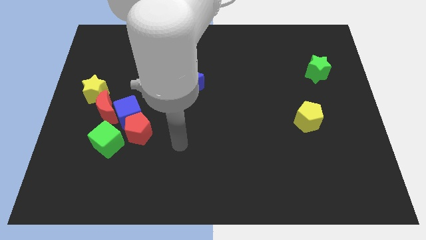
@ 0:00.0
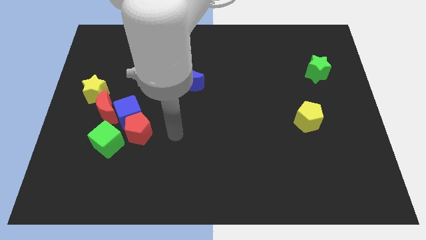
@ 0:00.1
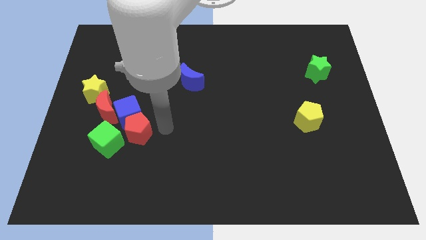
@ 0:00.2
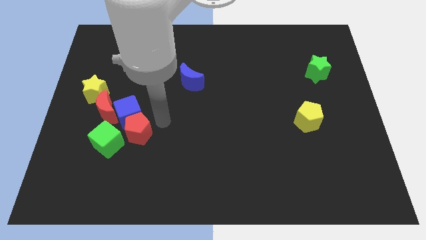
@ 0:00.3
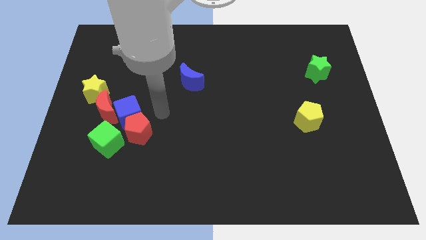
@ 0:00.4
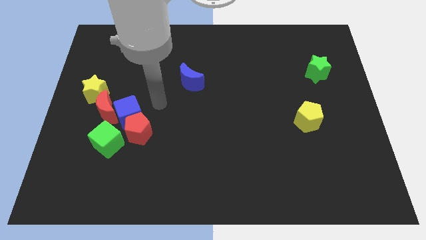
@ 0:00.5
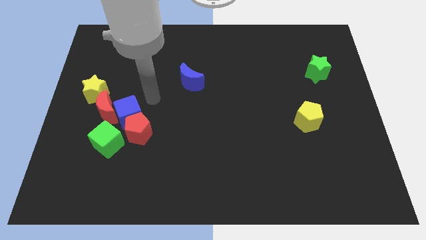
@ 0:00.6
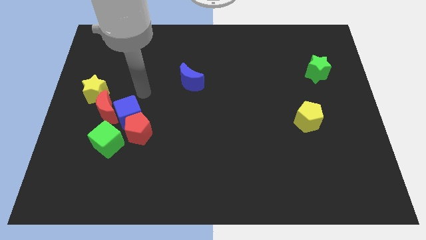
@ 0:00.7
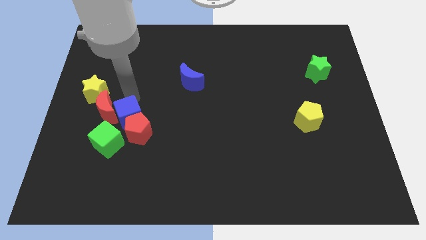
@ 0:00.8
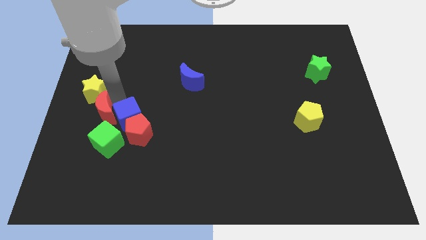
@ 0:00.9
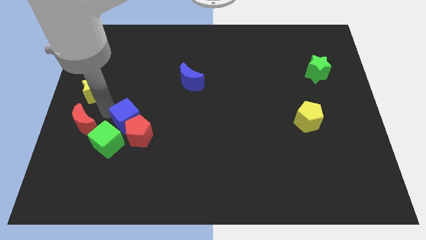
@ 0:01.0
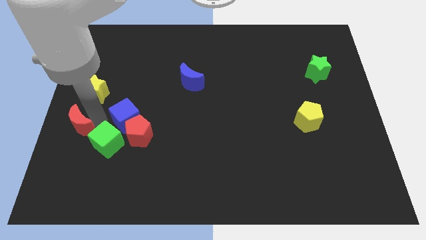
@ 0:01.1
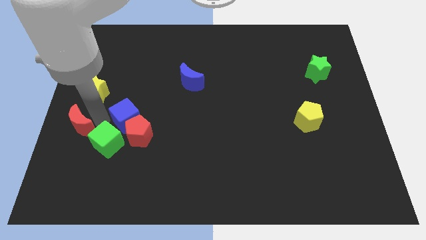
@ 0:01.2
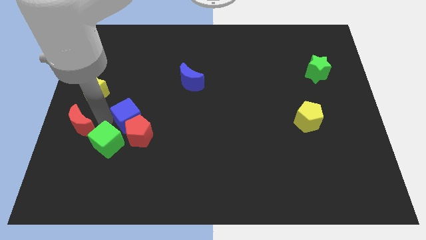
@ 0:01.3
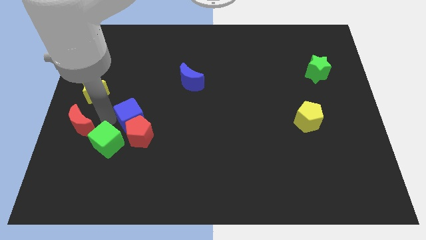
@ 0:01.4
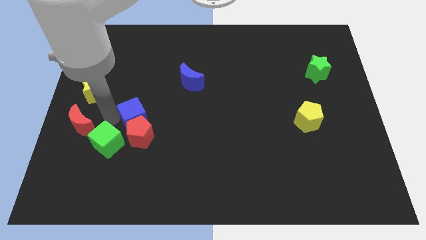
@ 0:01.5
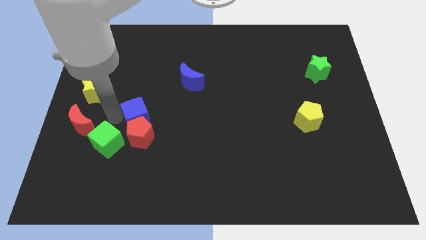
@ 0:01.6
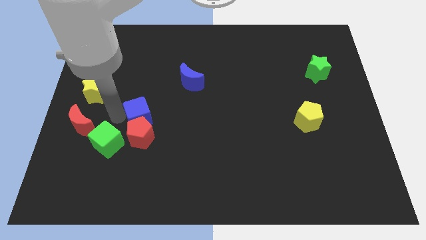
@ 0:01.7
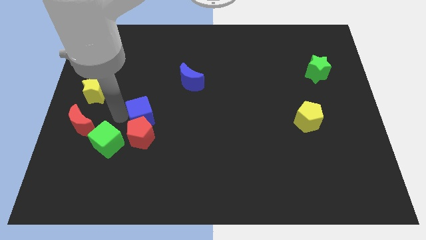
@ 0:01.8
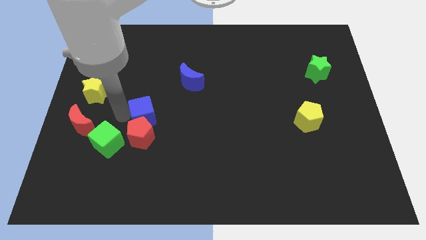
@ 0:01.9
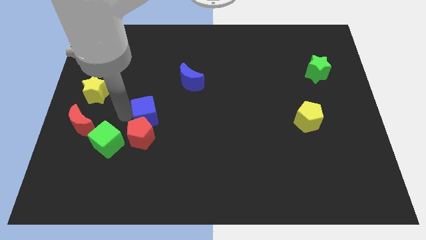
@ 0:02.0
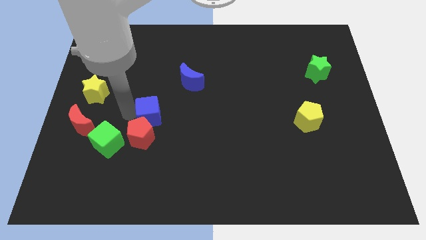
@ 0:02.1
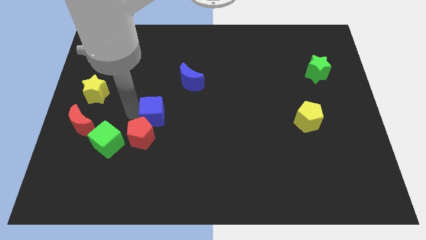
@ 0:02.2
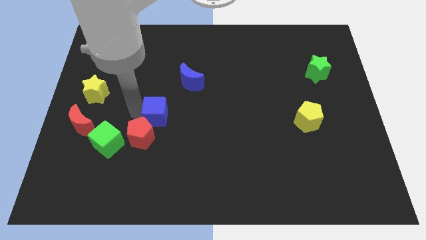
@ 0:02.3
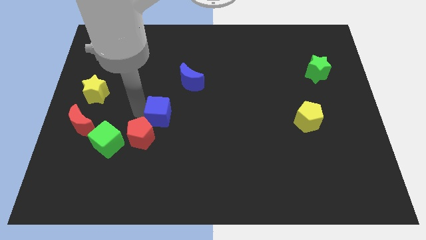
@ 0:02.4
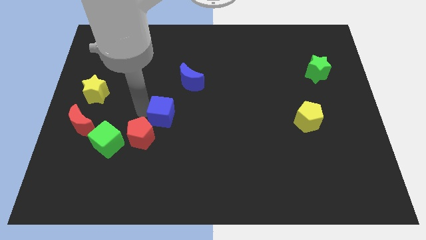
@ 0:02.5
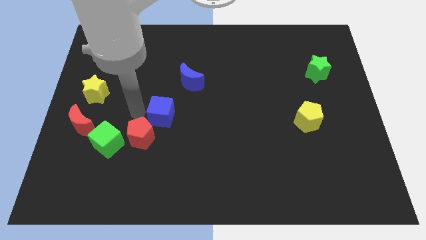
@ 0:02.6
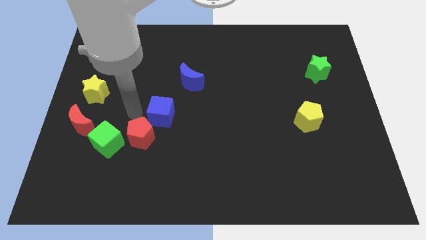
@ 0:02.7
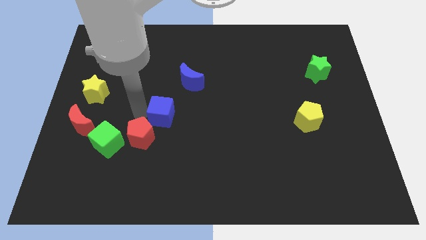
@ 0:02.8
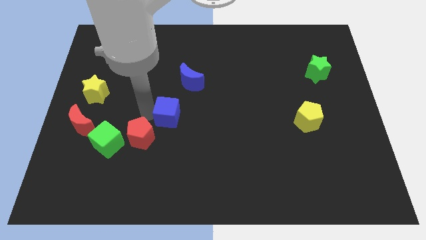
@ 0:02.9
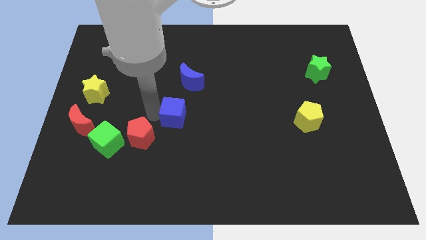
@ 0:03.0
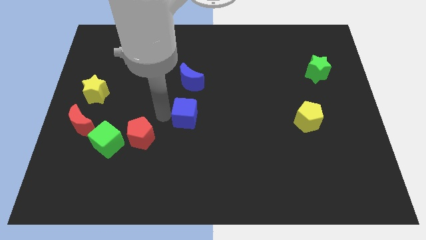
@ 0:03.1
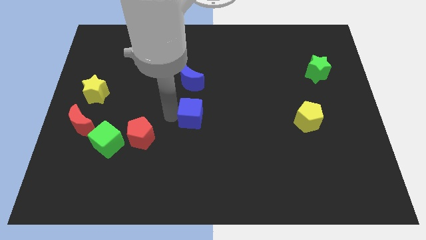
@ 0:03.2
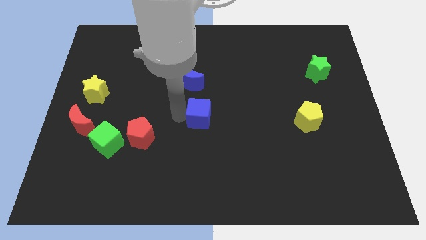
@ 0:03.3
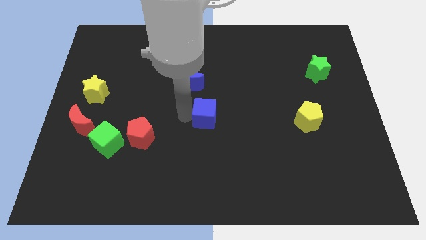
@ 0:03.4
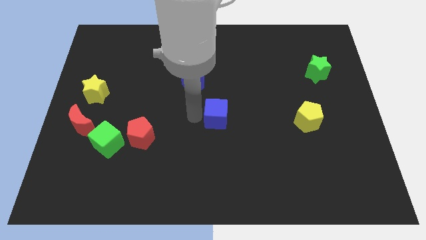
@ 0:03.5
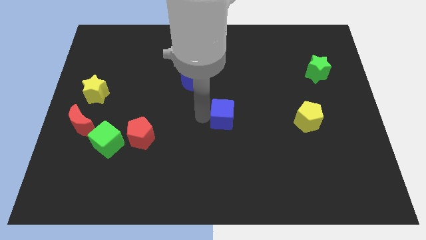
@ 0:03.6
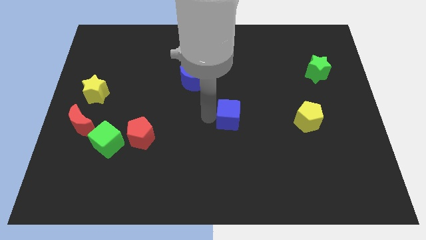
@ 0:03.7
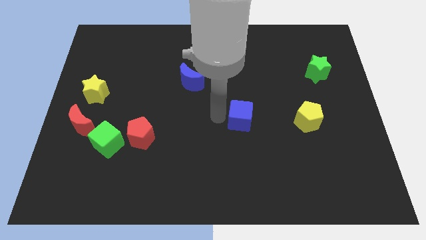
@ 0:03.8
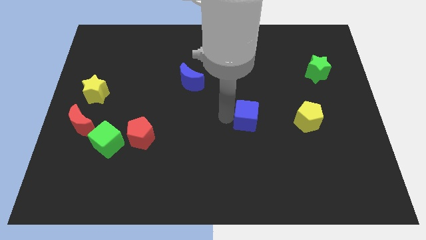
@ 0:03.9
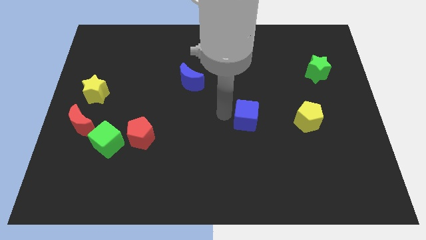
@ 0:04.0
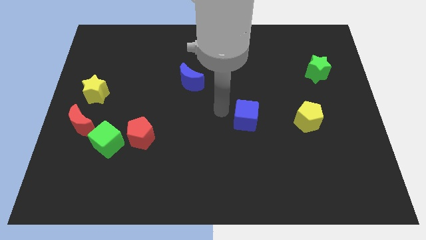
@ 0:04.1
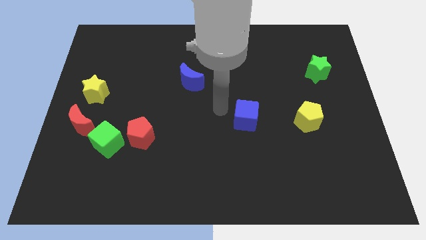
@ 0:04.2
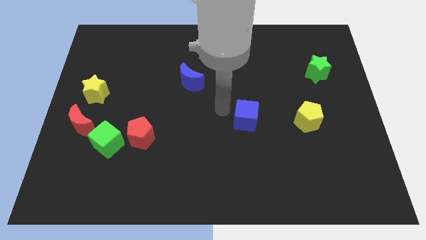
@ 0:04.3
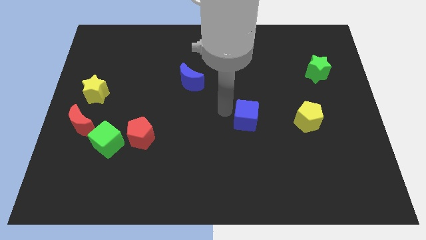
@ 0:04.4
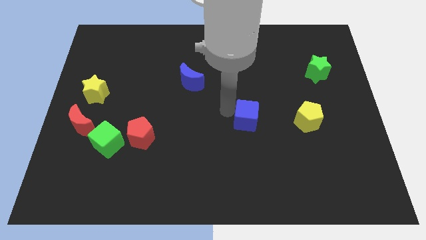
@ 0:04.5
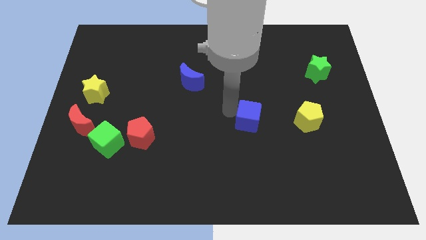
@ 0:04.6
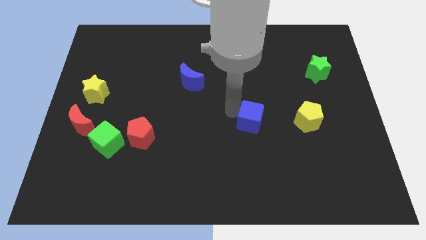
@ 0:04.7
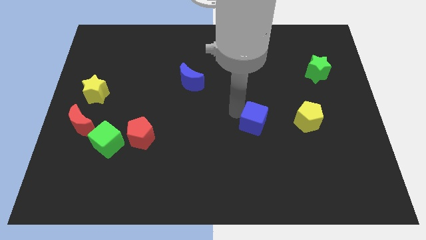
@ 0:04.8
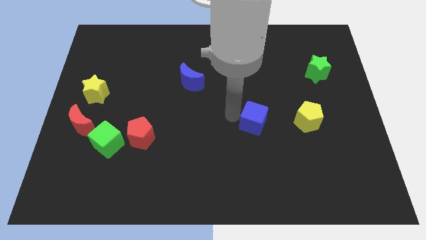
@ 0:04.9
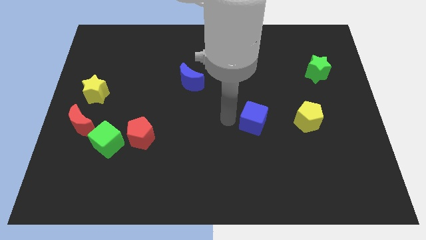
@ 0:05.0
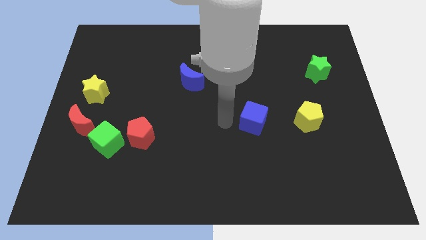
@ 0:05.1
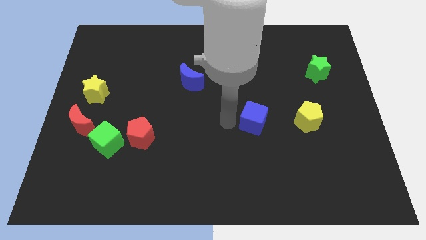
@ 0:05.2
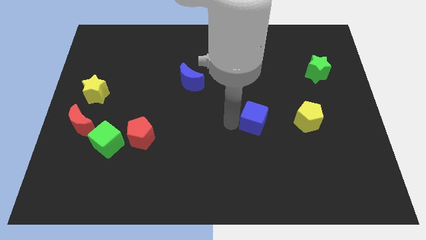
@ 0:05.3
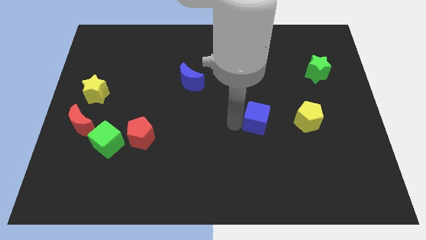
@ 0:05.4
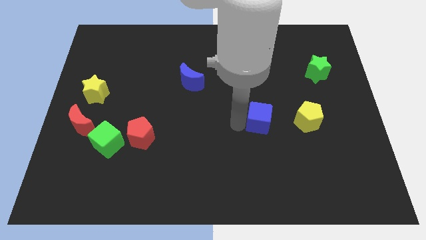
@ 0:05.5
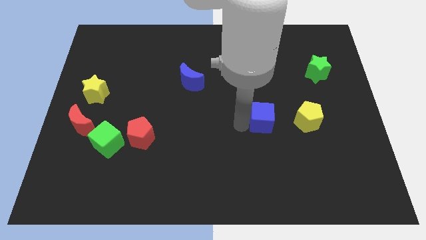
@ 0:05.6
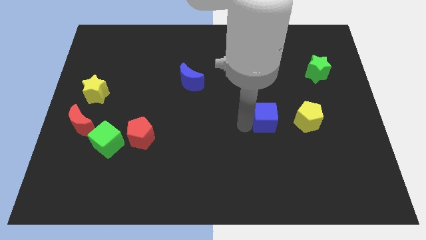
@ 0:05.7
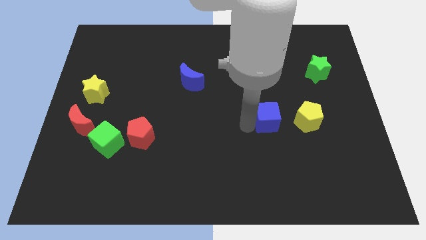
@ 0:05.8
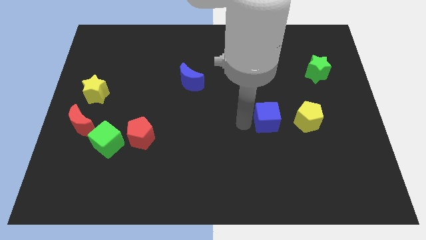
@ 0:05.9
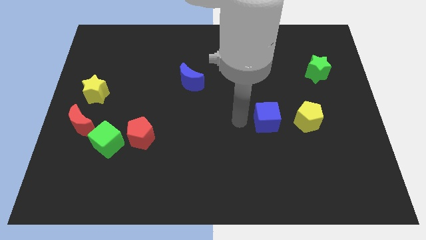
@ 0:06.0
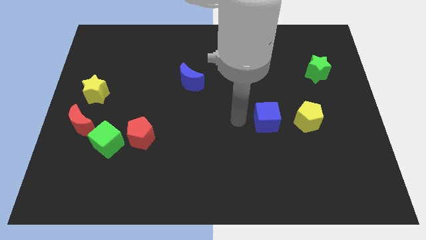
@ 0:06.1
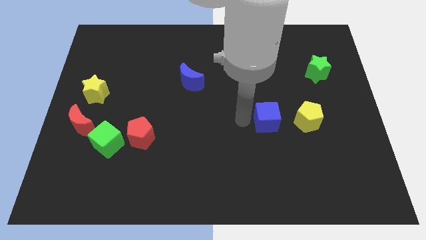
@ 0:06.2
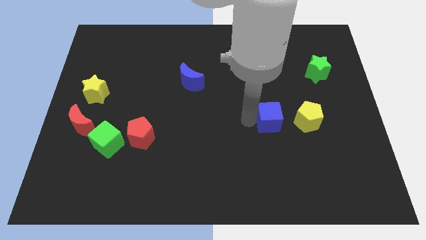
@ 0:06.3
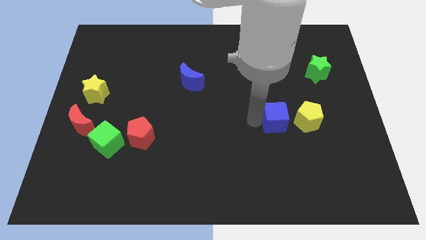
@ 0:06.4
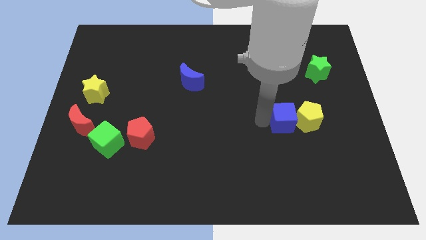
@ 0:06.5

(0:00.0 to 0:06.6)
put the blue cube to the yellow pentagon

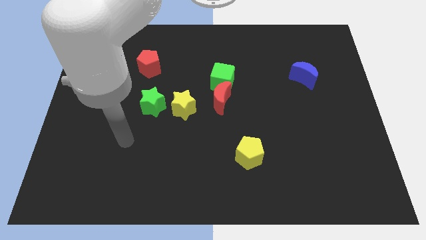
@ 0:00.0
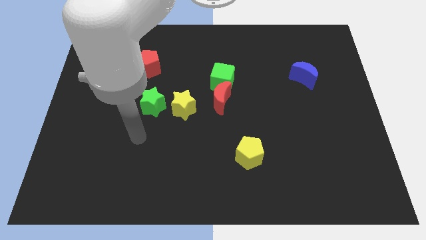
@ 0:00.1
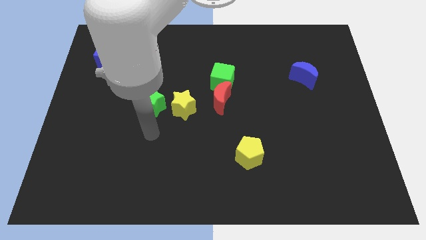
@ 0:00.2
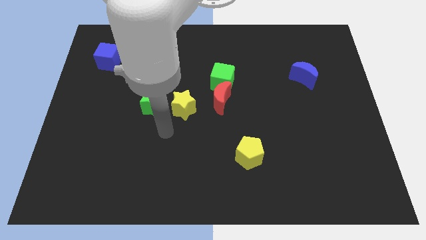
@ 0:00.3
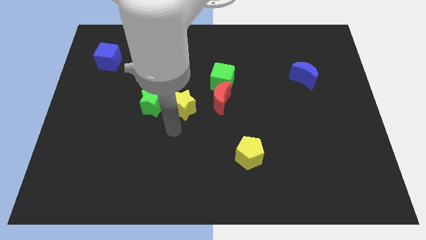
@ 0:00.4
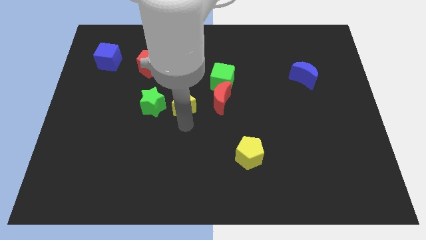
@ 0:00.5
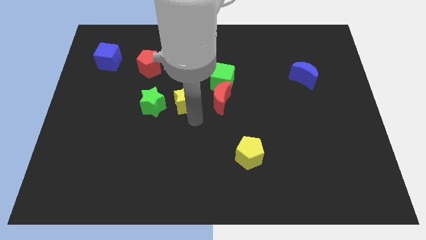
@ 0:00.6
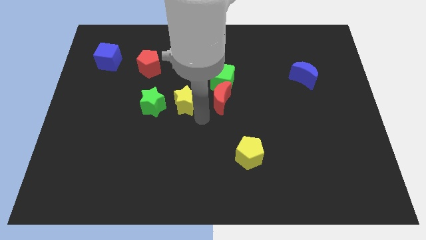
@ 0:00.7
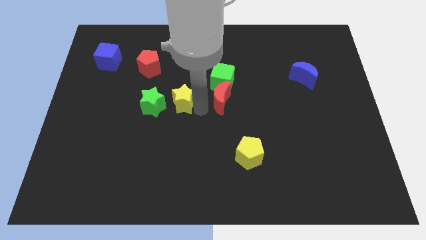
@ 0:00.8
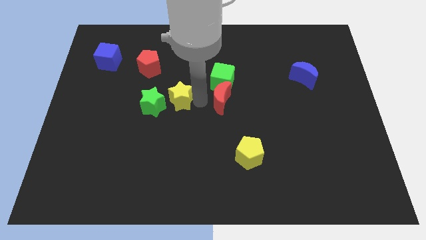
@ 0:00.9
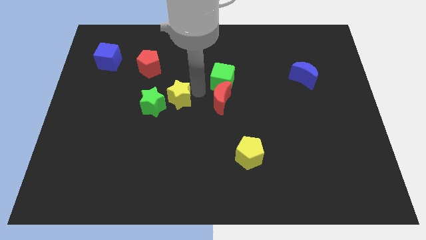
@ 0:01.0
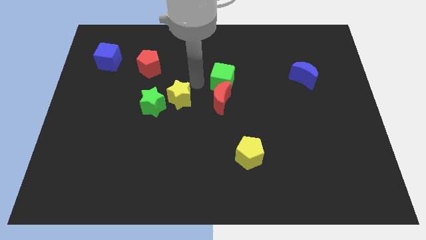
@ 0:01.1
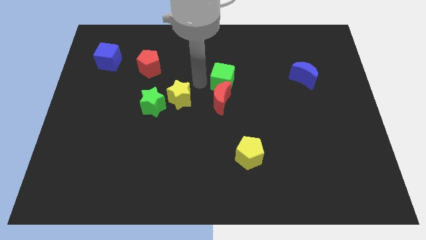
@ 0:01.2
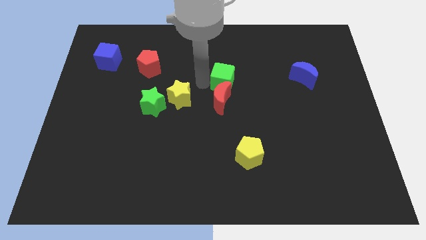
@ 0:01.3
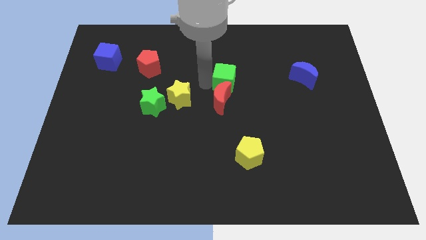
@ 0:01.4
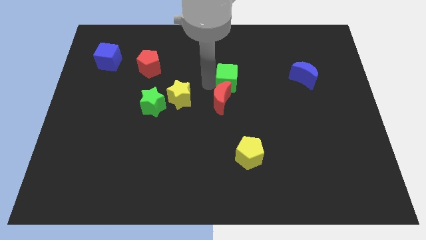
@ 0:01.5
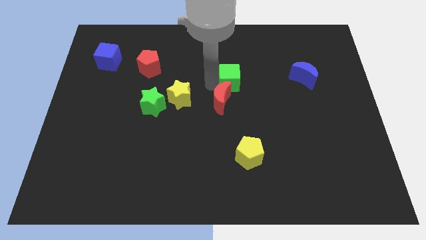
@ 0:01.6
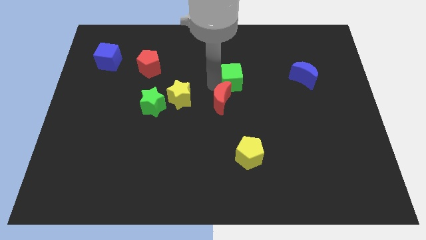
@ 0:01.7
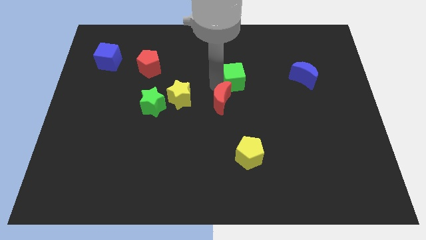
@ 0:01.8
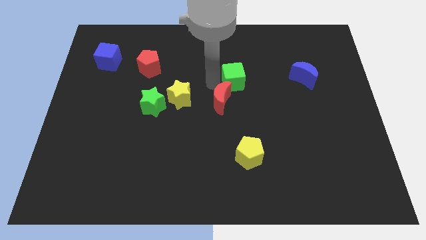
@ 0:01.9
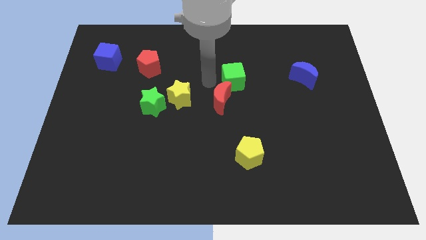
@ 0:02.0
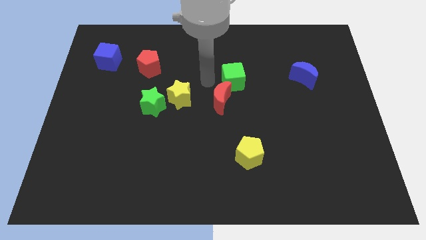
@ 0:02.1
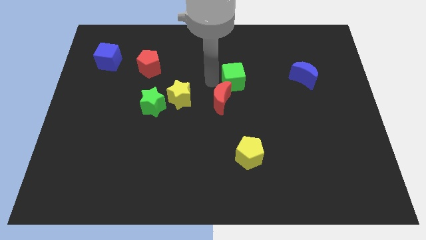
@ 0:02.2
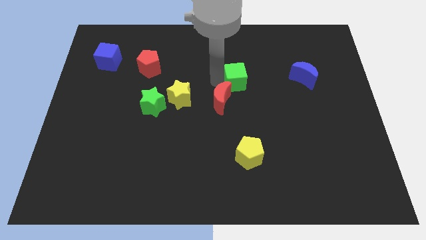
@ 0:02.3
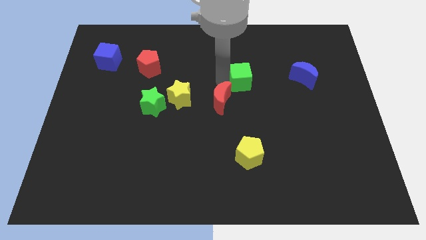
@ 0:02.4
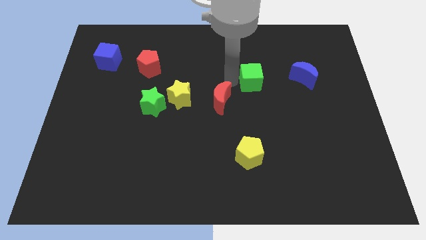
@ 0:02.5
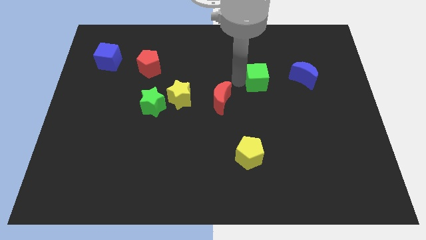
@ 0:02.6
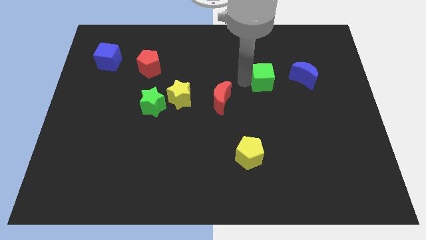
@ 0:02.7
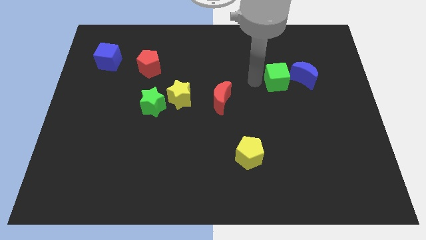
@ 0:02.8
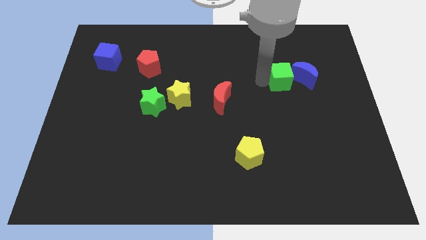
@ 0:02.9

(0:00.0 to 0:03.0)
push the green cube towards the blue moon
